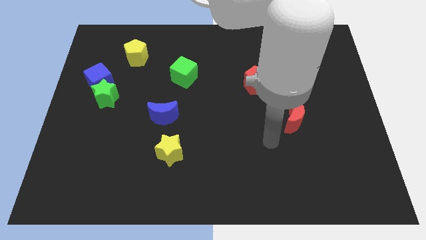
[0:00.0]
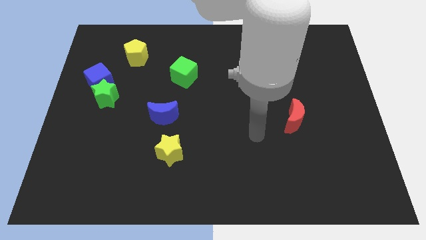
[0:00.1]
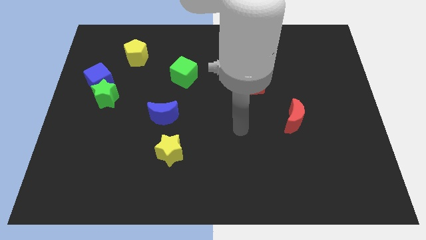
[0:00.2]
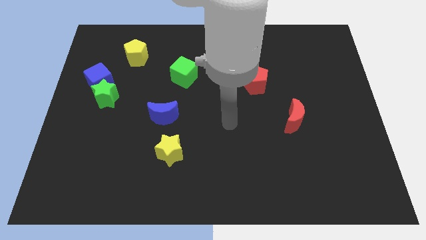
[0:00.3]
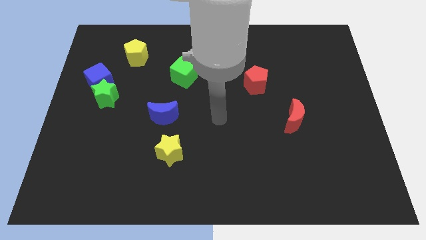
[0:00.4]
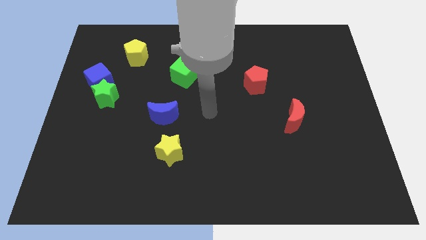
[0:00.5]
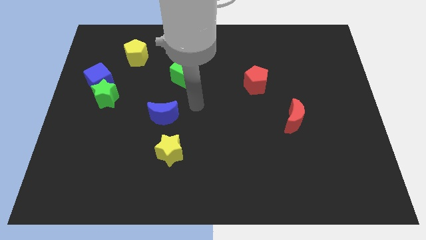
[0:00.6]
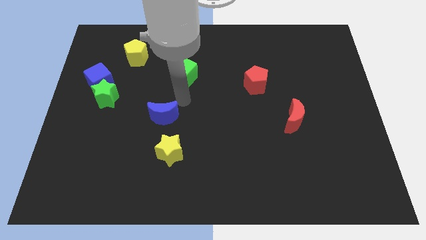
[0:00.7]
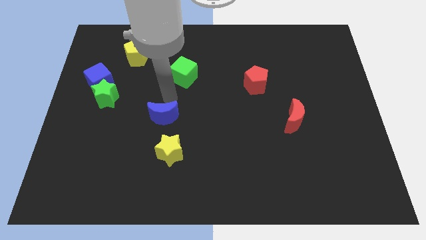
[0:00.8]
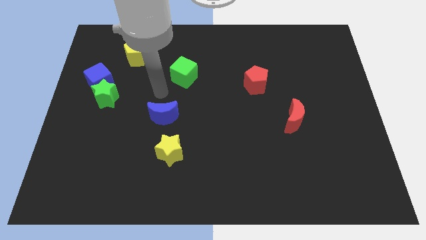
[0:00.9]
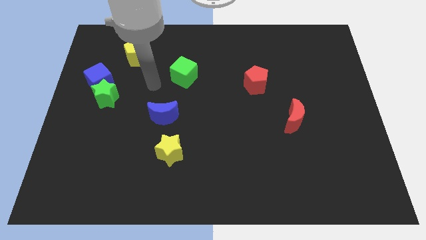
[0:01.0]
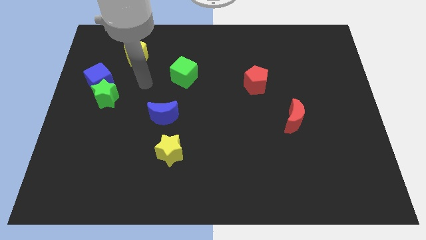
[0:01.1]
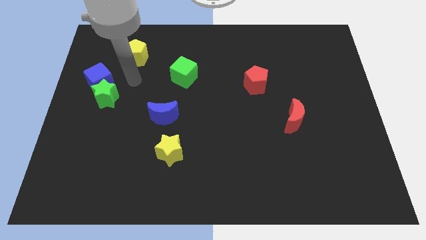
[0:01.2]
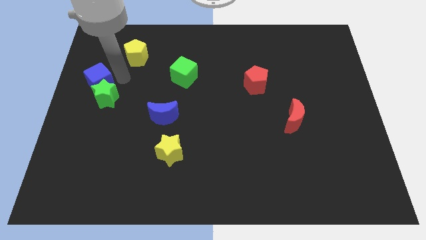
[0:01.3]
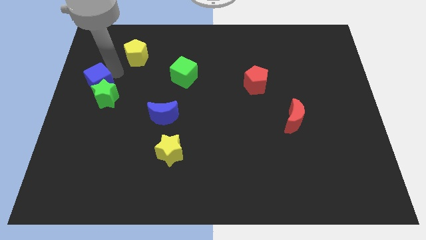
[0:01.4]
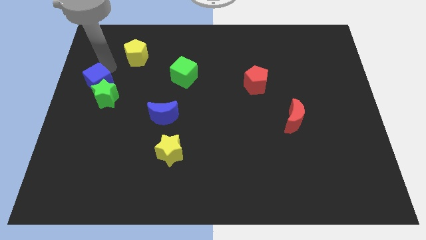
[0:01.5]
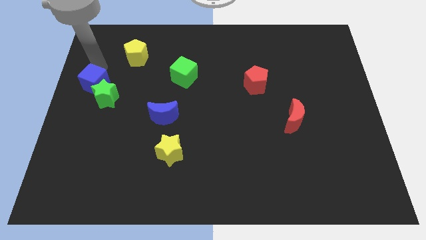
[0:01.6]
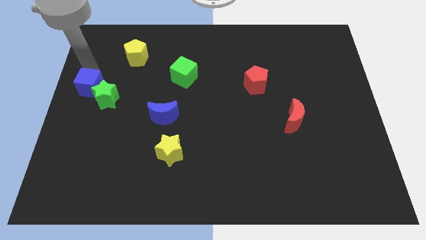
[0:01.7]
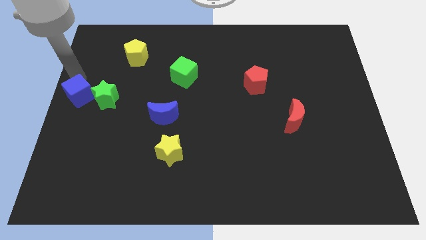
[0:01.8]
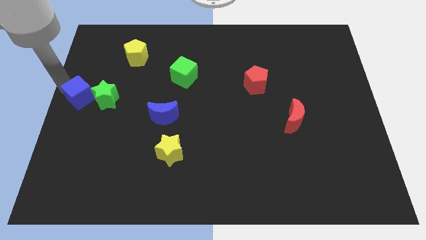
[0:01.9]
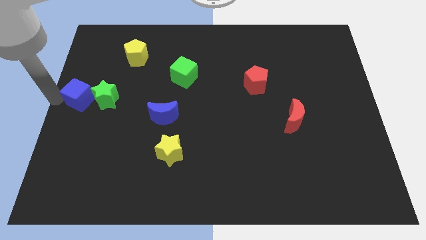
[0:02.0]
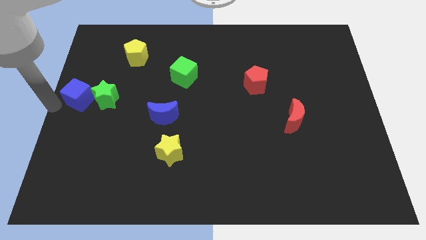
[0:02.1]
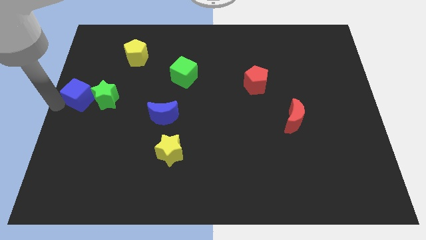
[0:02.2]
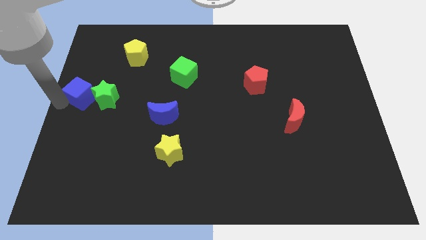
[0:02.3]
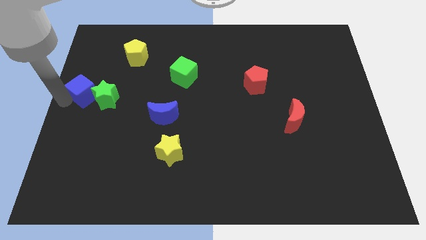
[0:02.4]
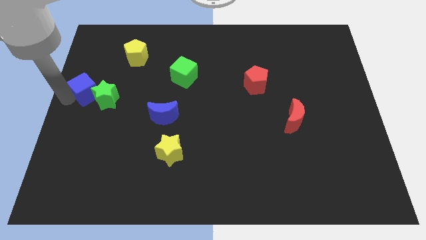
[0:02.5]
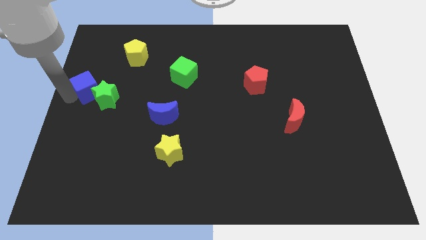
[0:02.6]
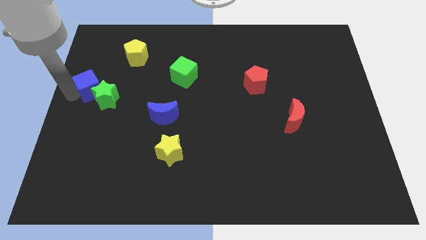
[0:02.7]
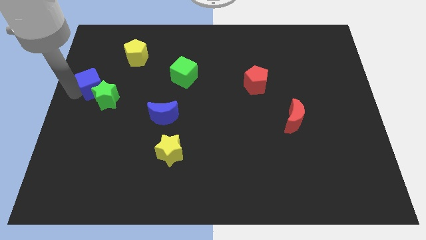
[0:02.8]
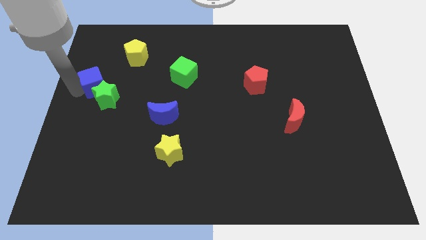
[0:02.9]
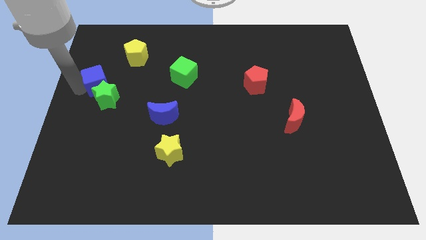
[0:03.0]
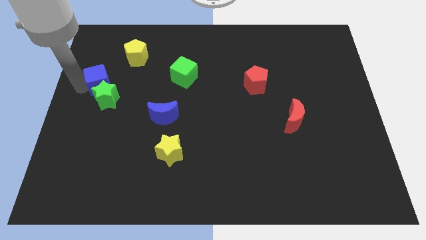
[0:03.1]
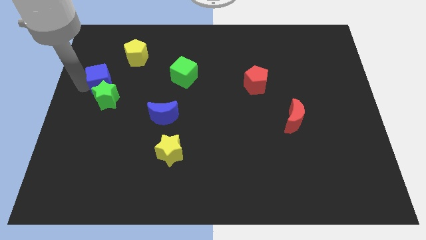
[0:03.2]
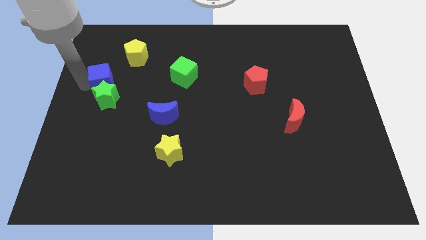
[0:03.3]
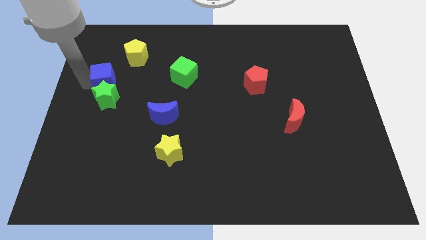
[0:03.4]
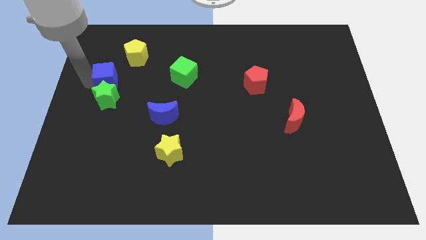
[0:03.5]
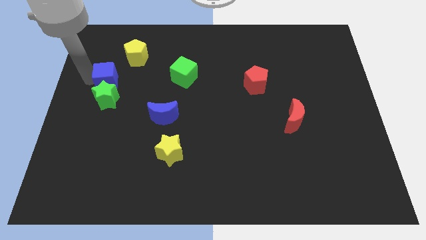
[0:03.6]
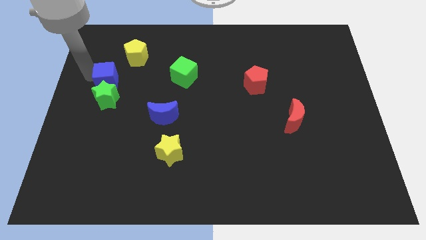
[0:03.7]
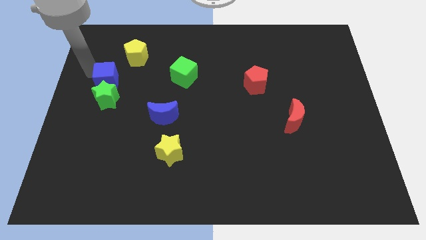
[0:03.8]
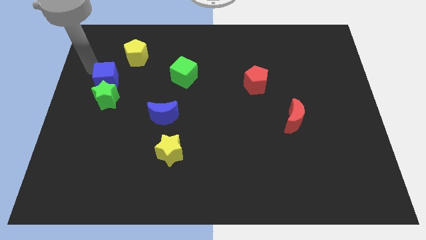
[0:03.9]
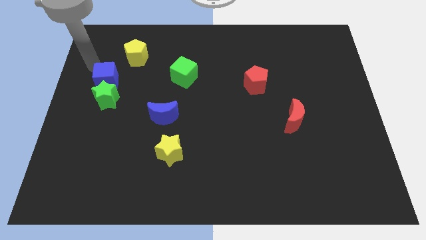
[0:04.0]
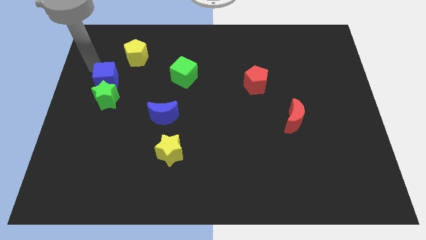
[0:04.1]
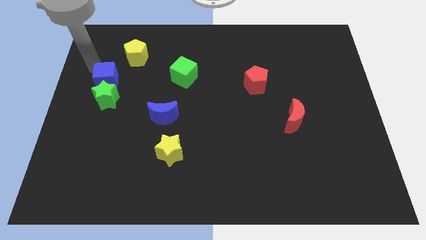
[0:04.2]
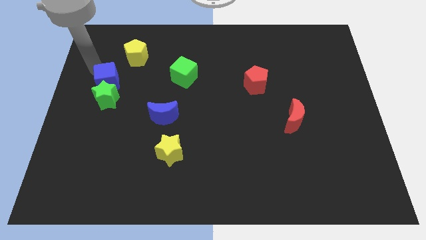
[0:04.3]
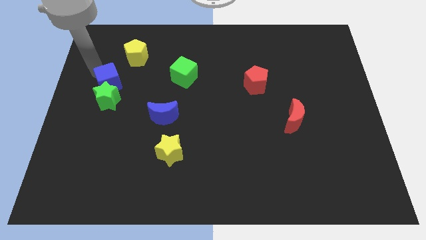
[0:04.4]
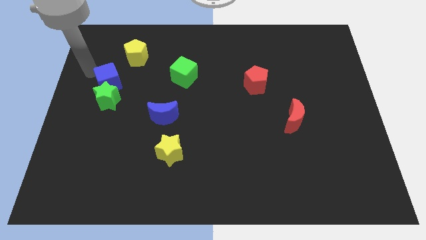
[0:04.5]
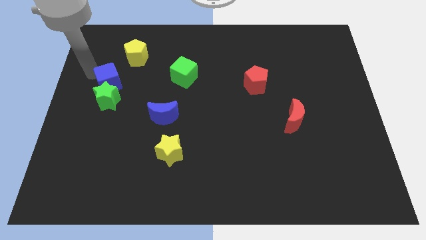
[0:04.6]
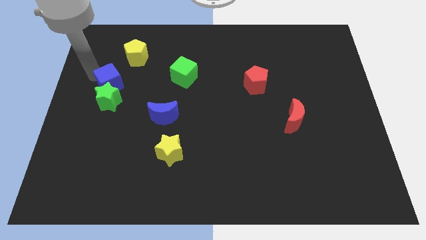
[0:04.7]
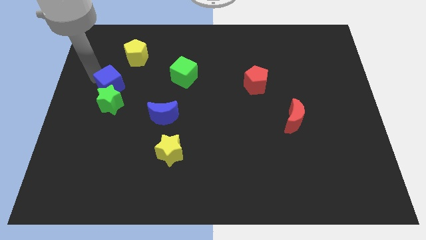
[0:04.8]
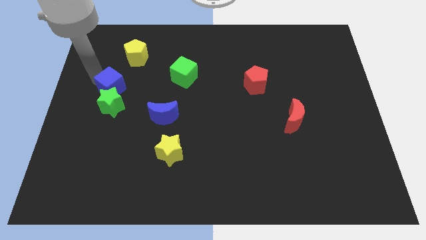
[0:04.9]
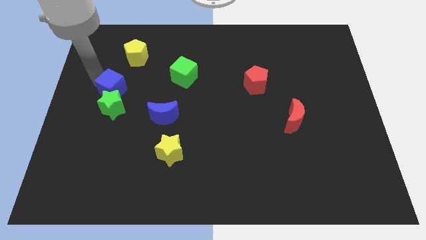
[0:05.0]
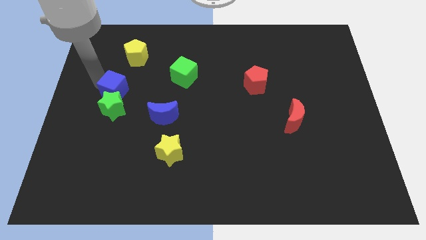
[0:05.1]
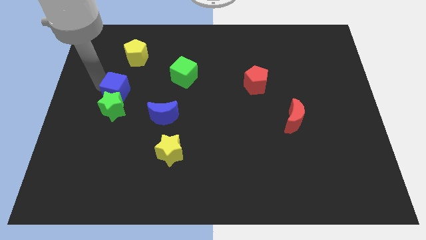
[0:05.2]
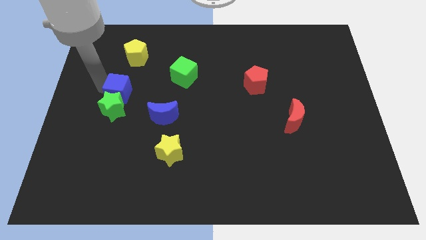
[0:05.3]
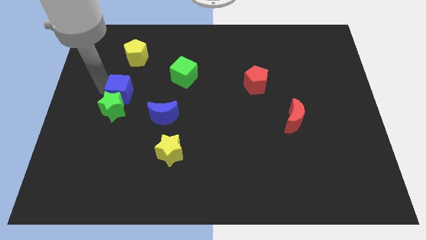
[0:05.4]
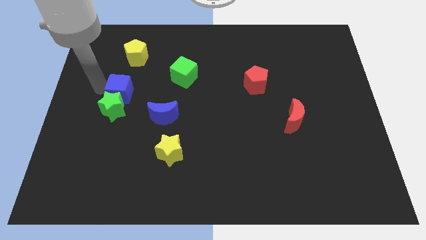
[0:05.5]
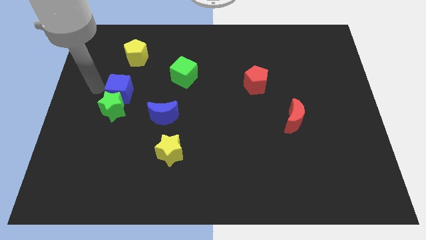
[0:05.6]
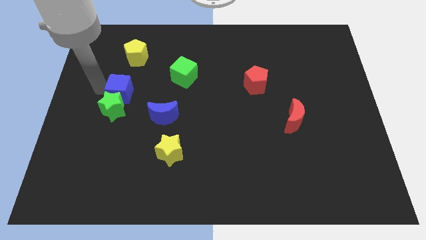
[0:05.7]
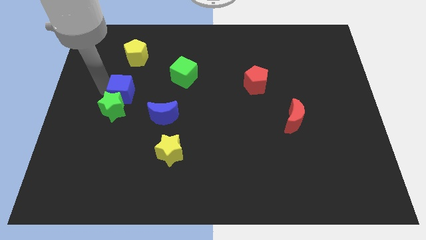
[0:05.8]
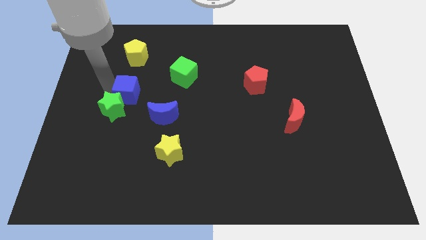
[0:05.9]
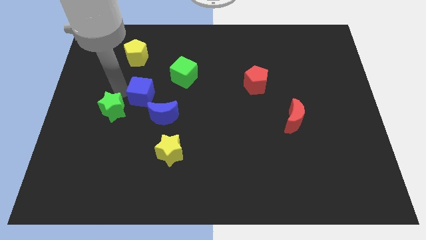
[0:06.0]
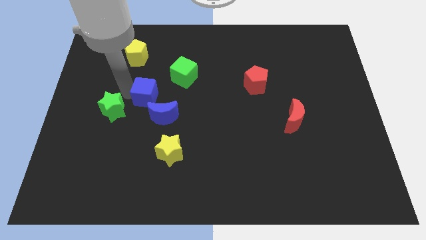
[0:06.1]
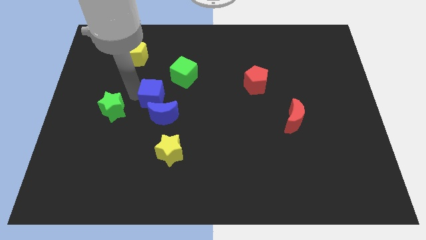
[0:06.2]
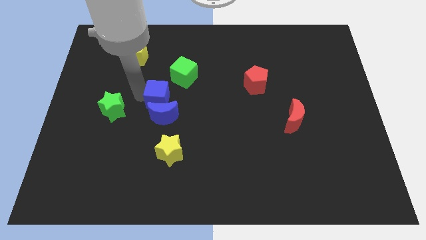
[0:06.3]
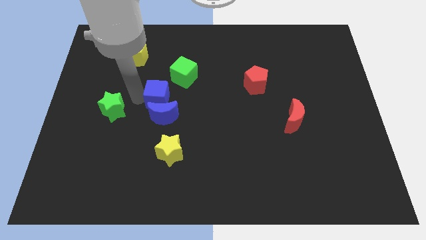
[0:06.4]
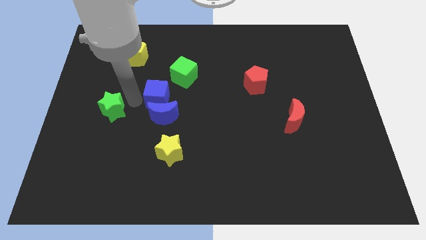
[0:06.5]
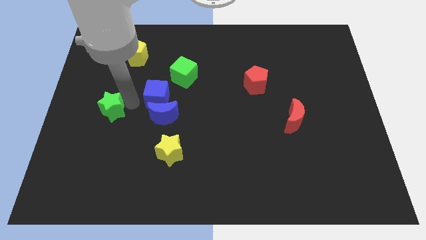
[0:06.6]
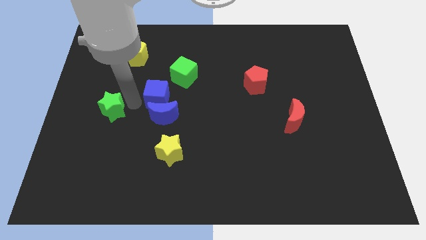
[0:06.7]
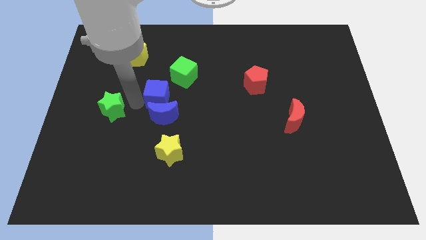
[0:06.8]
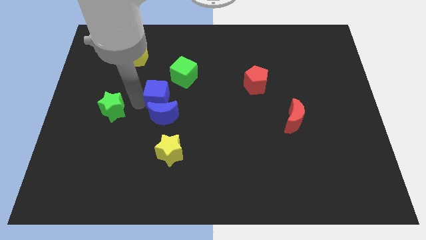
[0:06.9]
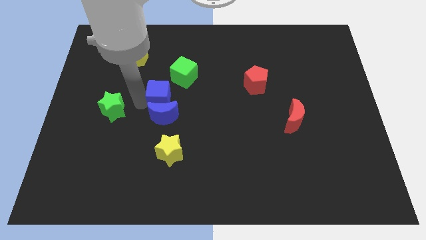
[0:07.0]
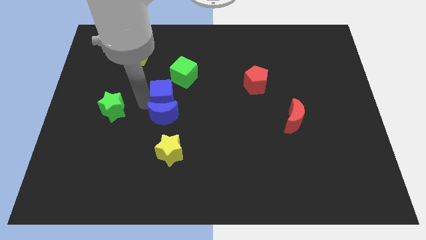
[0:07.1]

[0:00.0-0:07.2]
put the blue cube to the center of the board
